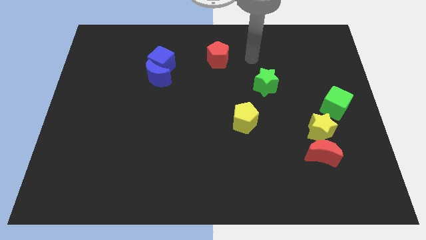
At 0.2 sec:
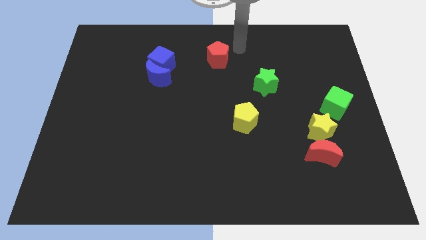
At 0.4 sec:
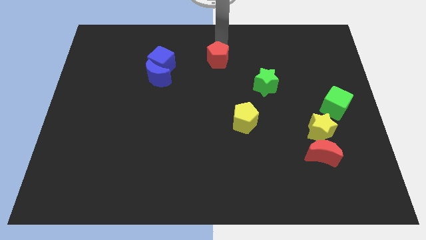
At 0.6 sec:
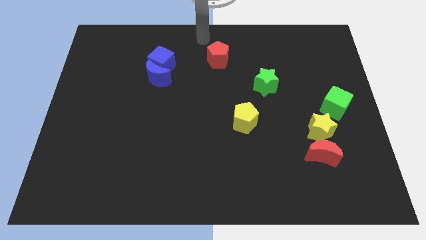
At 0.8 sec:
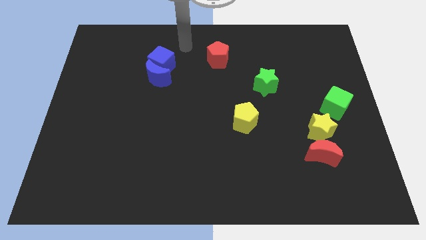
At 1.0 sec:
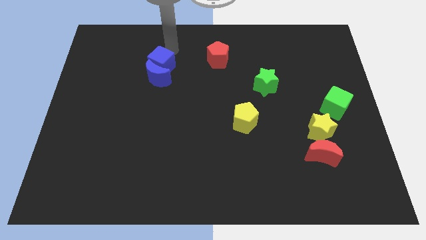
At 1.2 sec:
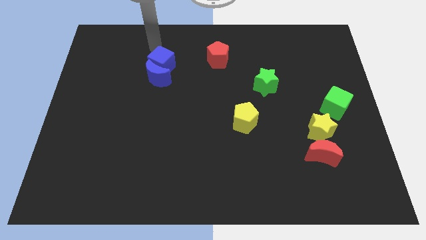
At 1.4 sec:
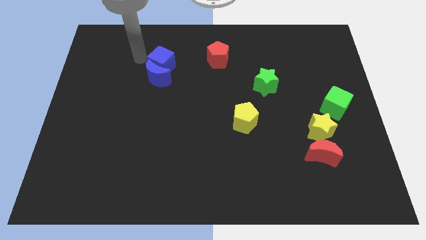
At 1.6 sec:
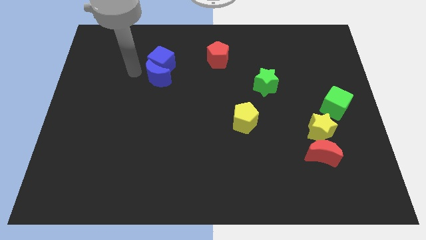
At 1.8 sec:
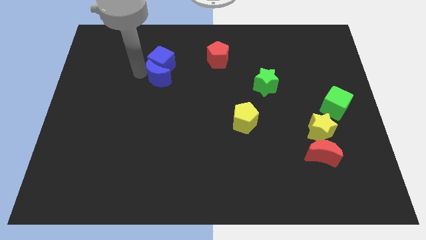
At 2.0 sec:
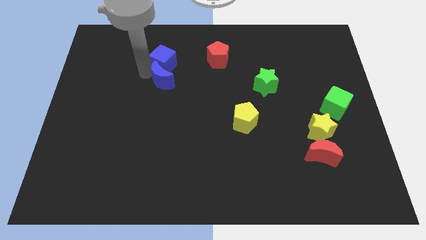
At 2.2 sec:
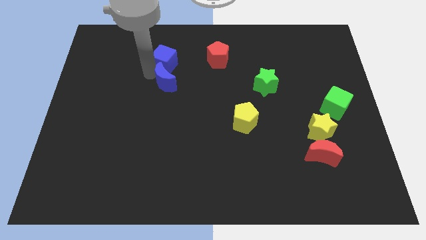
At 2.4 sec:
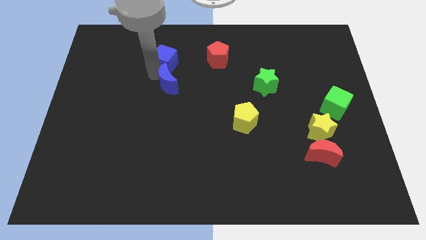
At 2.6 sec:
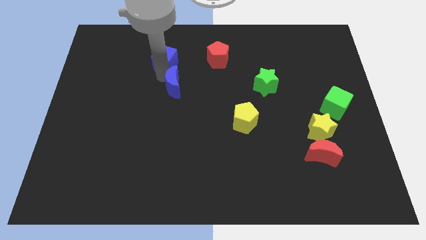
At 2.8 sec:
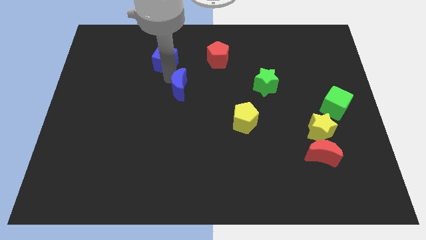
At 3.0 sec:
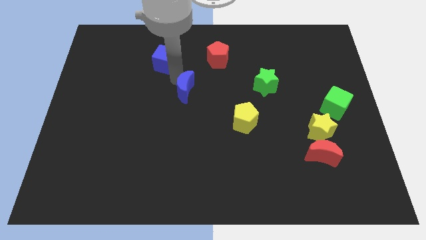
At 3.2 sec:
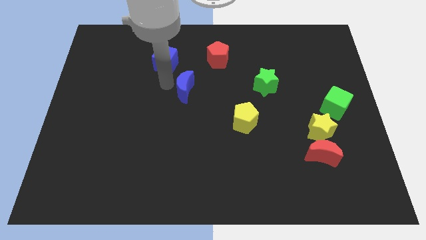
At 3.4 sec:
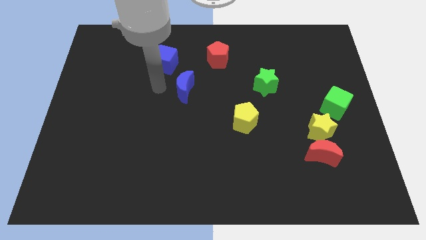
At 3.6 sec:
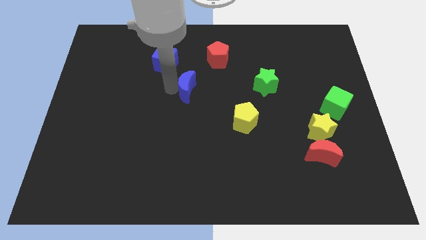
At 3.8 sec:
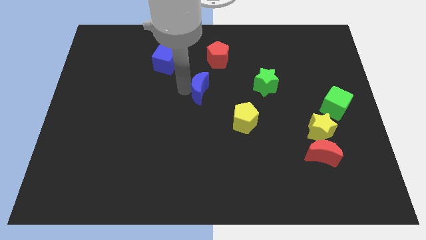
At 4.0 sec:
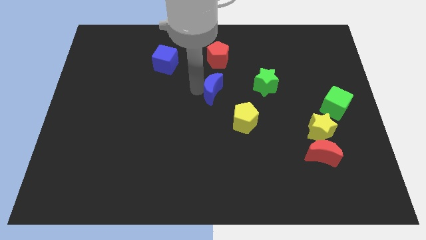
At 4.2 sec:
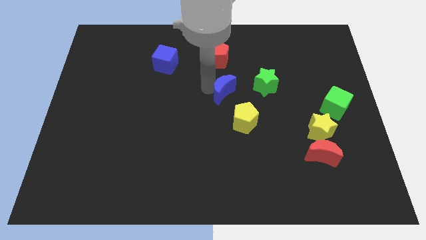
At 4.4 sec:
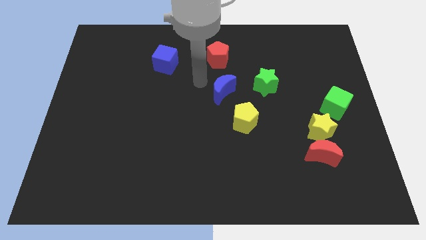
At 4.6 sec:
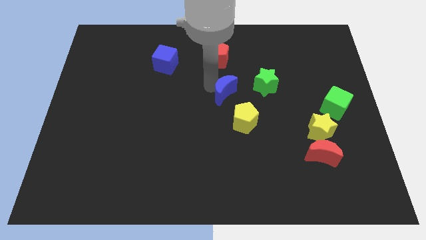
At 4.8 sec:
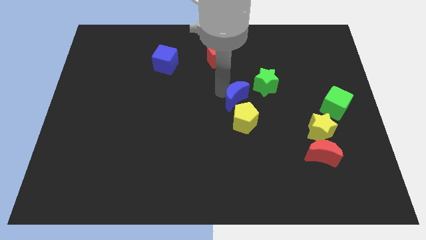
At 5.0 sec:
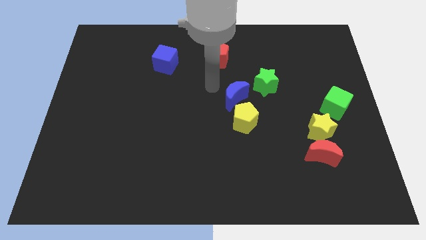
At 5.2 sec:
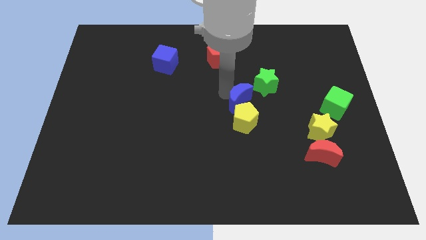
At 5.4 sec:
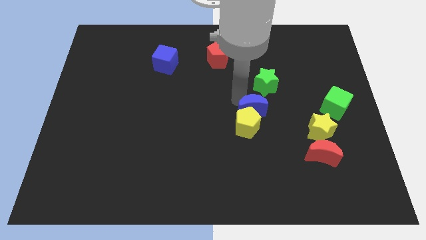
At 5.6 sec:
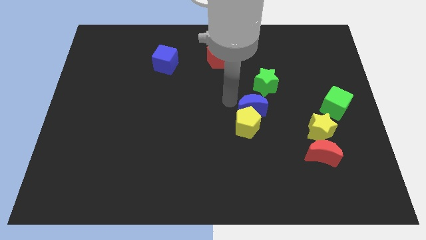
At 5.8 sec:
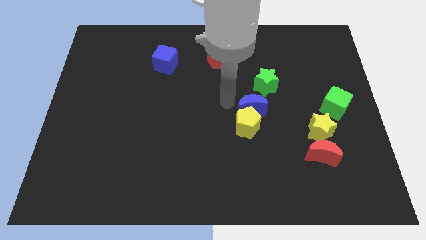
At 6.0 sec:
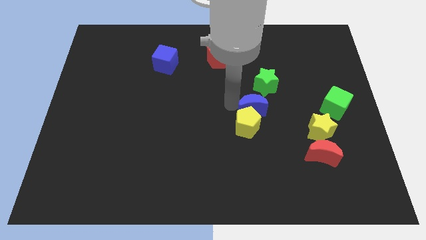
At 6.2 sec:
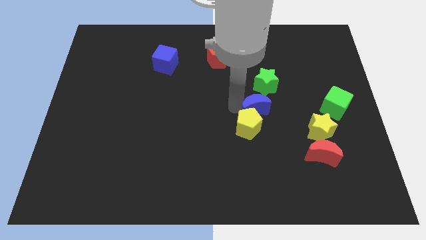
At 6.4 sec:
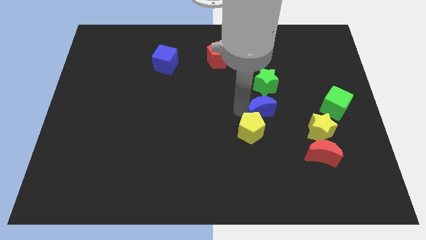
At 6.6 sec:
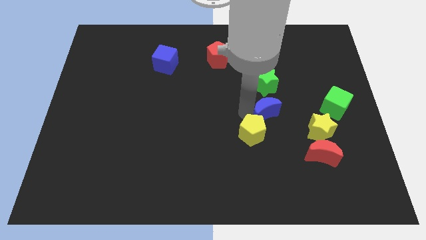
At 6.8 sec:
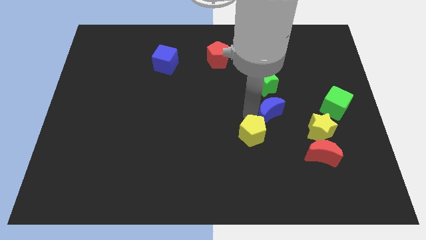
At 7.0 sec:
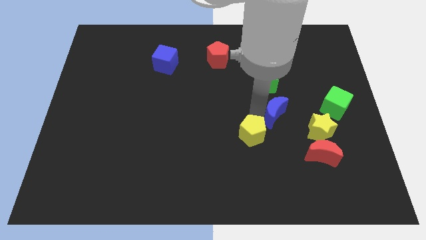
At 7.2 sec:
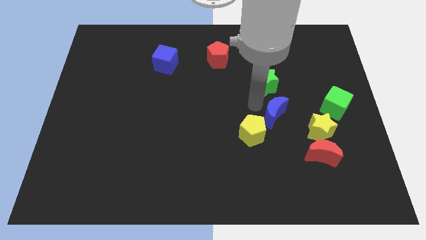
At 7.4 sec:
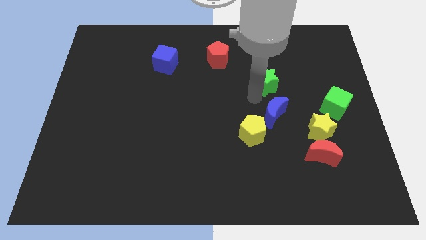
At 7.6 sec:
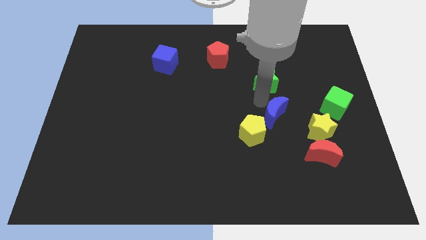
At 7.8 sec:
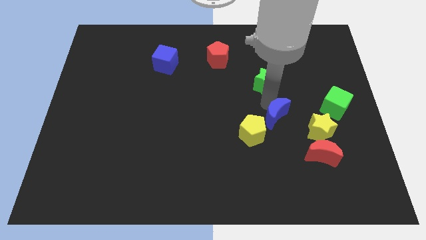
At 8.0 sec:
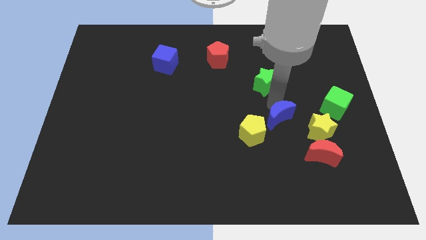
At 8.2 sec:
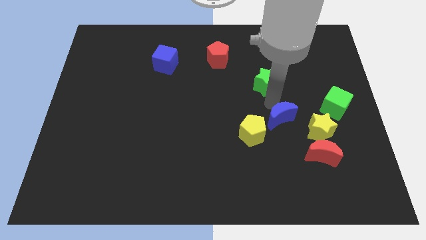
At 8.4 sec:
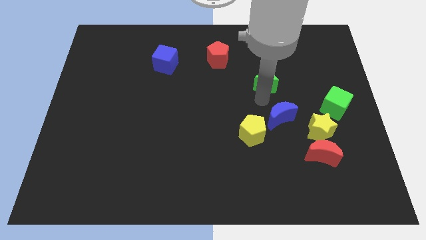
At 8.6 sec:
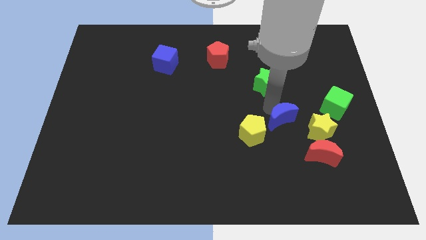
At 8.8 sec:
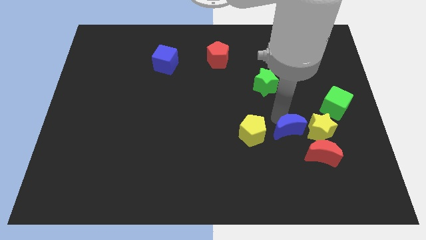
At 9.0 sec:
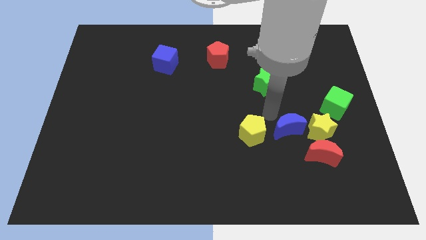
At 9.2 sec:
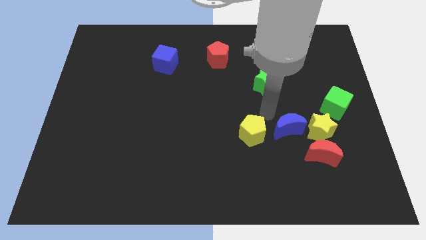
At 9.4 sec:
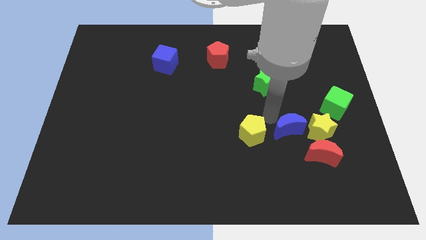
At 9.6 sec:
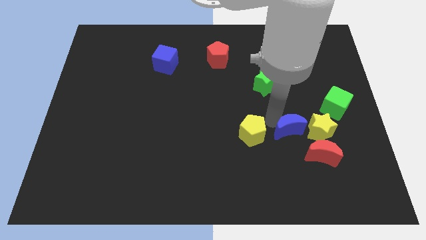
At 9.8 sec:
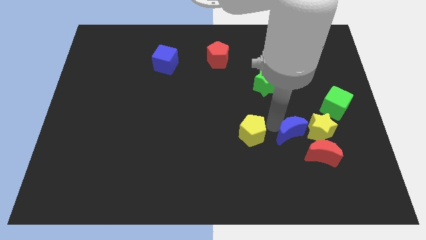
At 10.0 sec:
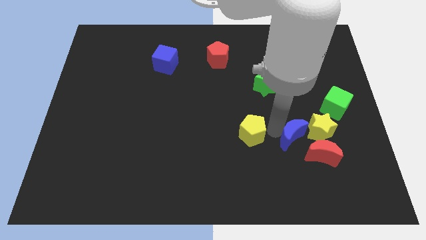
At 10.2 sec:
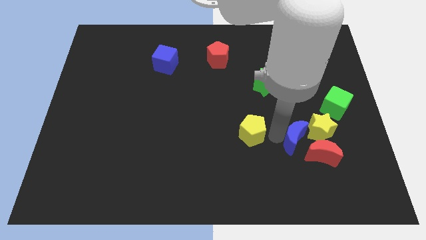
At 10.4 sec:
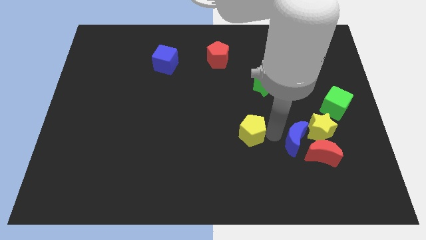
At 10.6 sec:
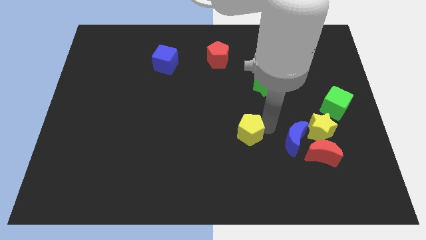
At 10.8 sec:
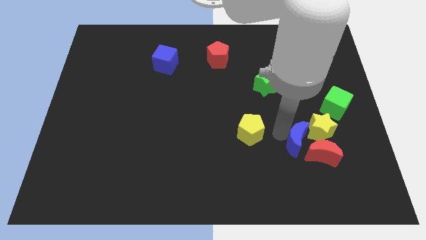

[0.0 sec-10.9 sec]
slide the blue moon to the red moon

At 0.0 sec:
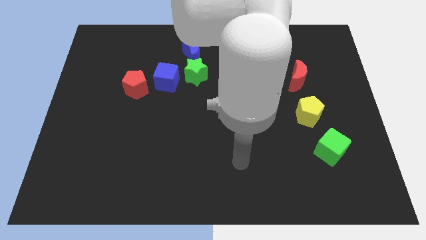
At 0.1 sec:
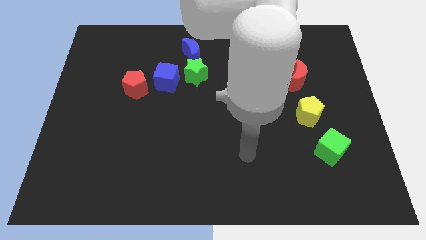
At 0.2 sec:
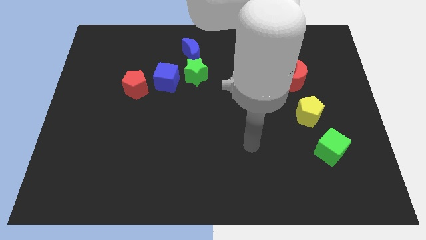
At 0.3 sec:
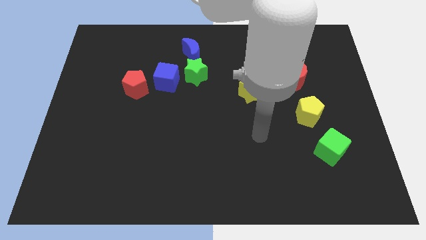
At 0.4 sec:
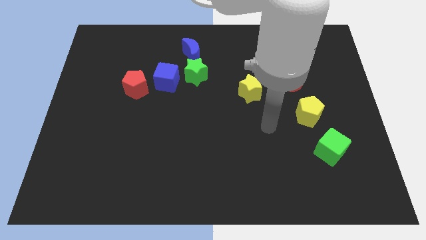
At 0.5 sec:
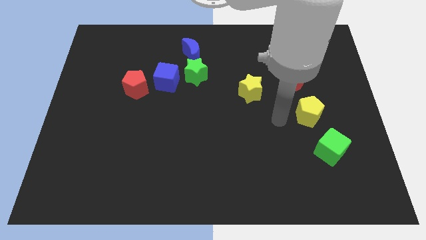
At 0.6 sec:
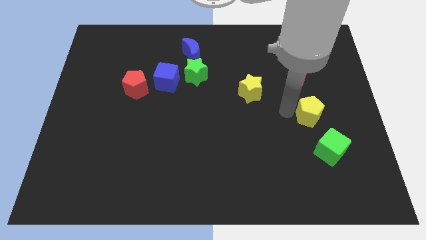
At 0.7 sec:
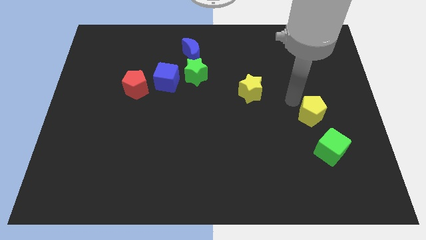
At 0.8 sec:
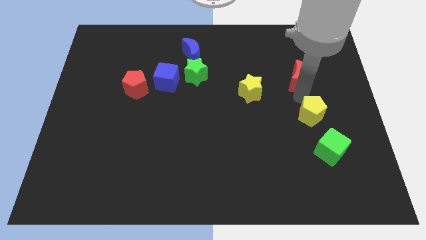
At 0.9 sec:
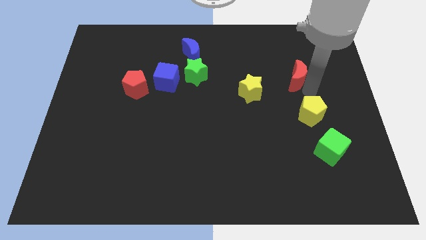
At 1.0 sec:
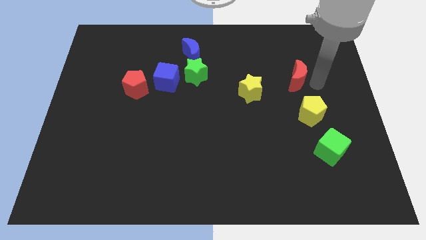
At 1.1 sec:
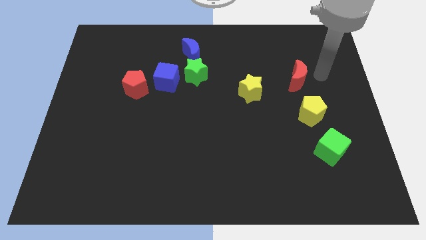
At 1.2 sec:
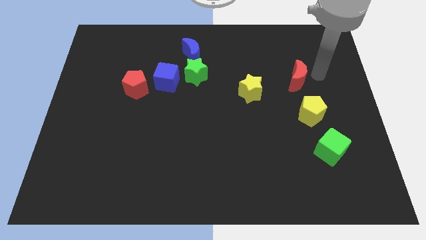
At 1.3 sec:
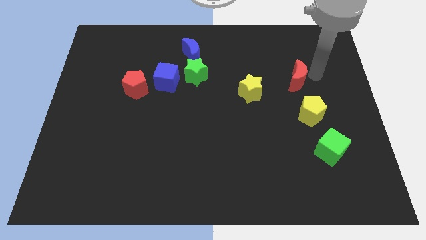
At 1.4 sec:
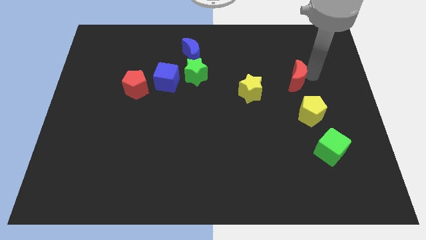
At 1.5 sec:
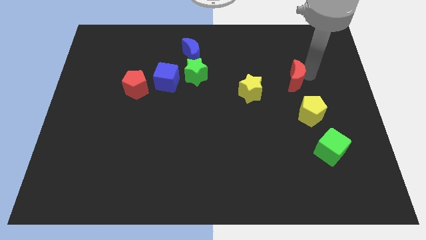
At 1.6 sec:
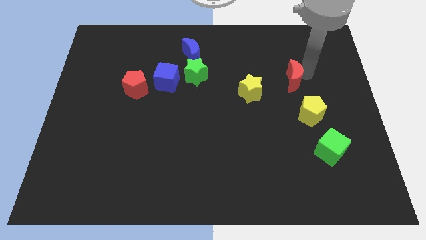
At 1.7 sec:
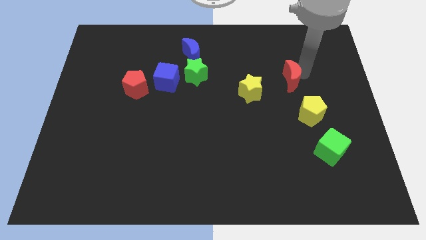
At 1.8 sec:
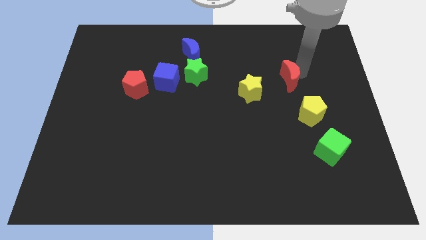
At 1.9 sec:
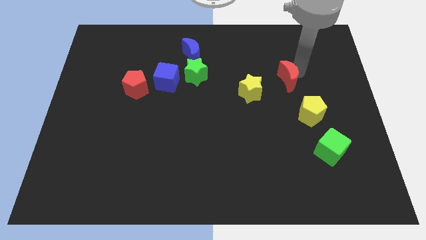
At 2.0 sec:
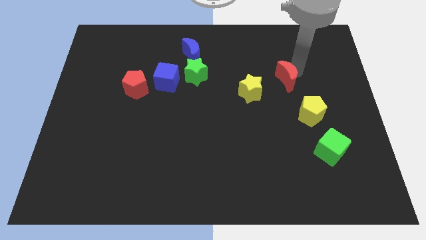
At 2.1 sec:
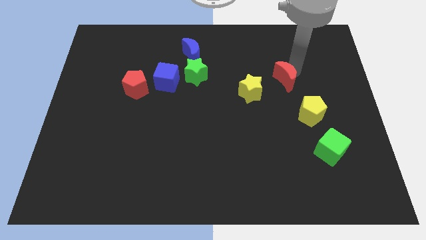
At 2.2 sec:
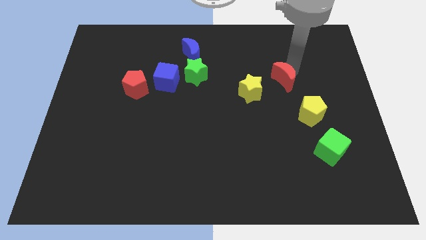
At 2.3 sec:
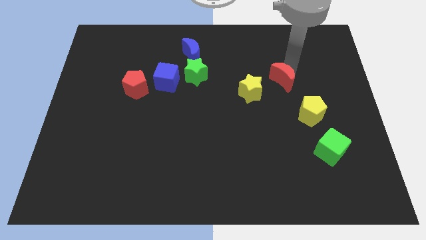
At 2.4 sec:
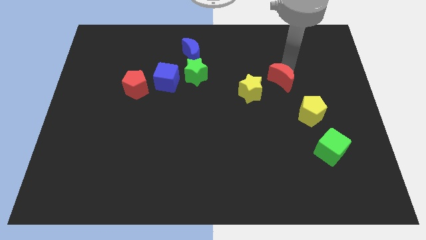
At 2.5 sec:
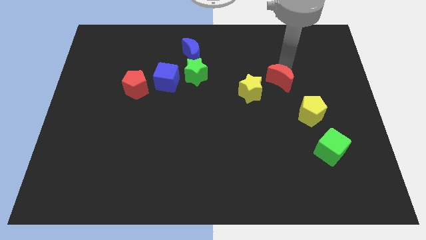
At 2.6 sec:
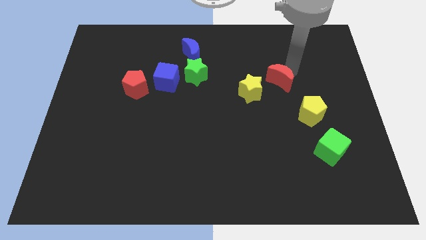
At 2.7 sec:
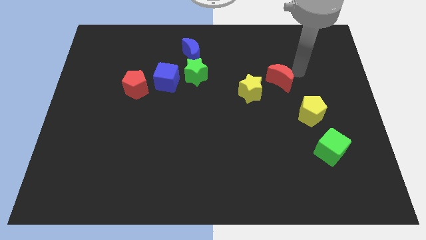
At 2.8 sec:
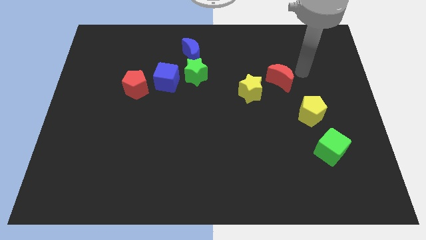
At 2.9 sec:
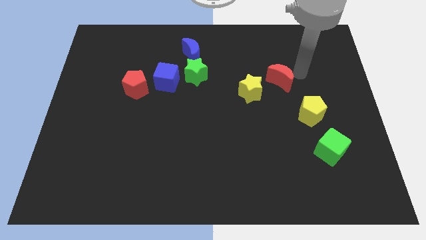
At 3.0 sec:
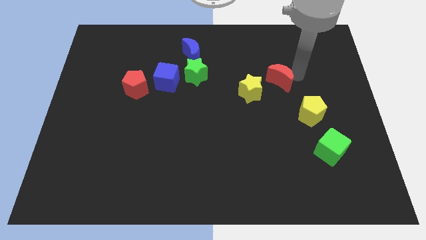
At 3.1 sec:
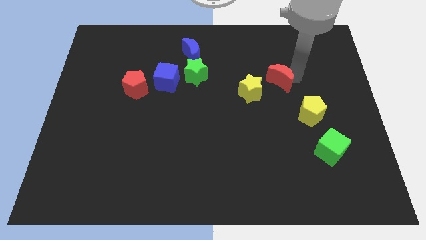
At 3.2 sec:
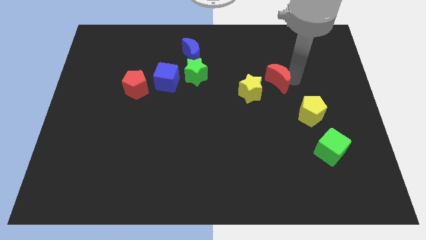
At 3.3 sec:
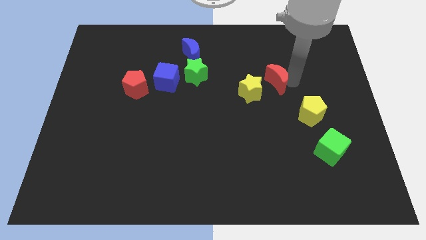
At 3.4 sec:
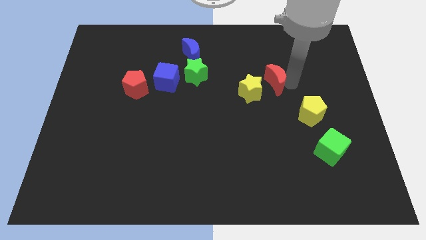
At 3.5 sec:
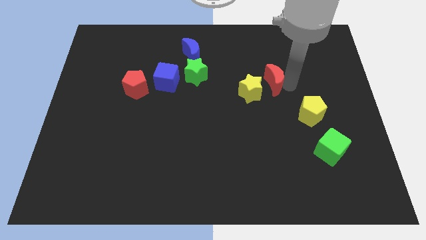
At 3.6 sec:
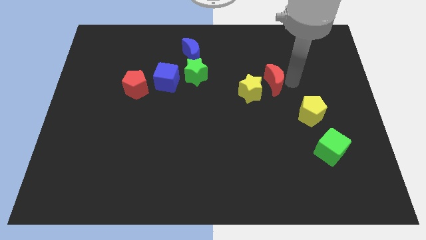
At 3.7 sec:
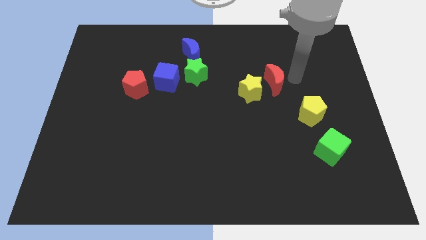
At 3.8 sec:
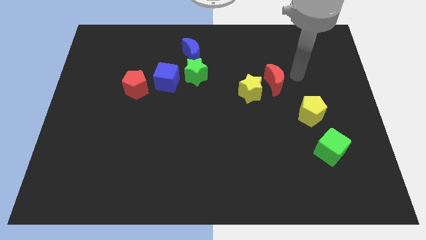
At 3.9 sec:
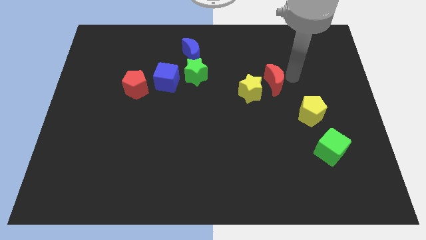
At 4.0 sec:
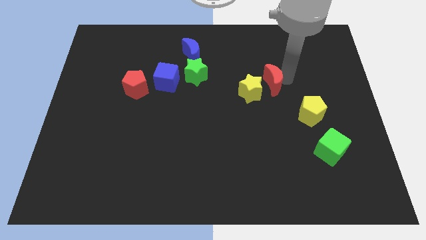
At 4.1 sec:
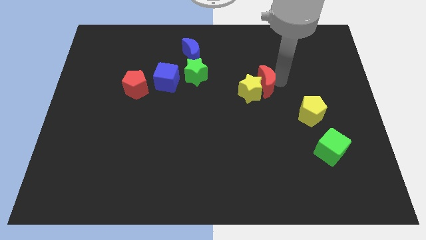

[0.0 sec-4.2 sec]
put the red moon to the yellow star
